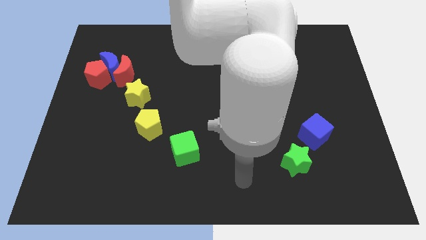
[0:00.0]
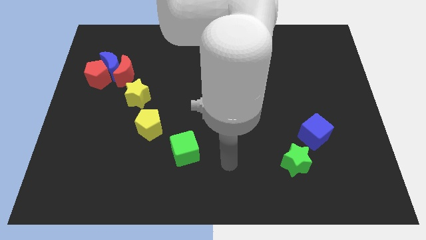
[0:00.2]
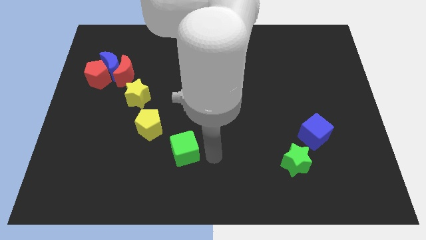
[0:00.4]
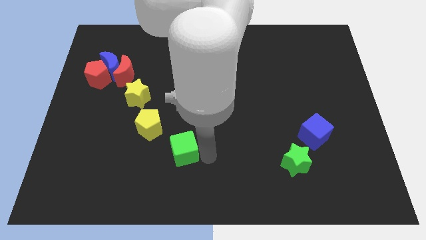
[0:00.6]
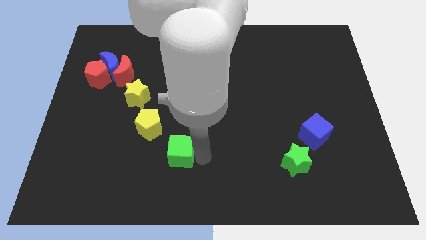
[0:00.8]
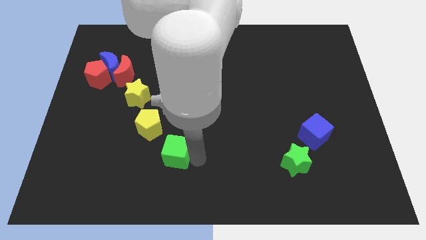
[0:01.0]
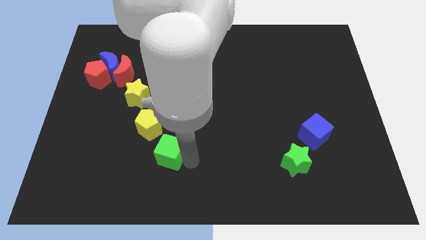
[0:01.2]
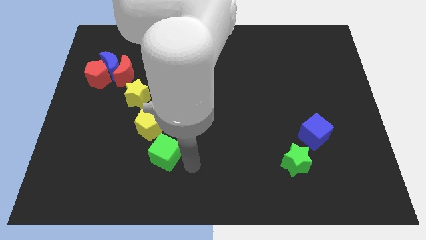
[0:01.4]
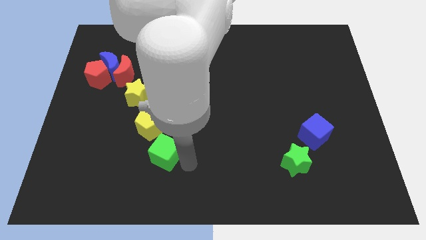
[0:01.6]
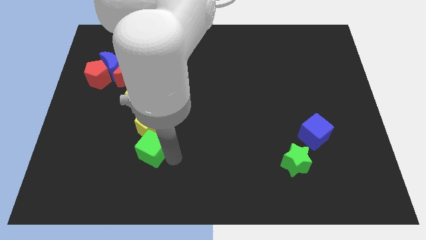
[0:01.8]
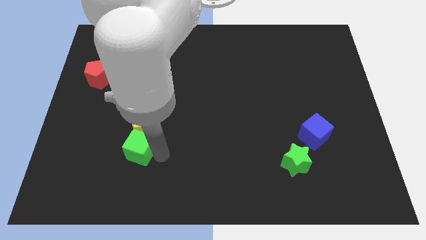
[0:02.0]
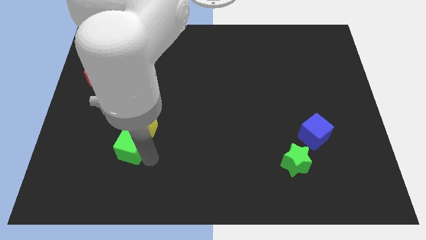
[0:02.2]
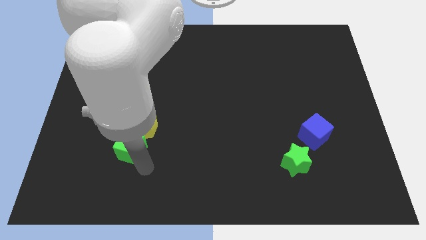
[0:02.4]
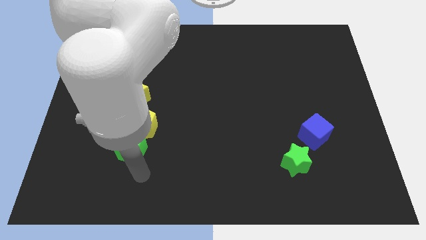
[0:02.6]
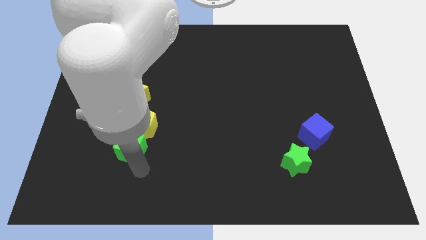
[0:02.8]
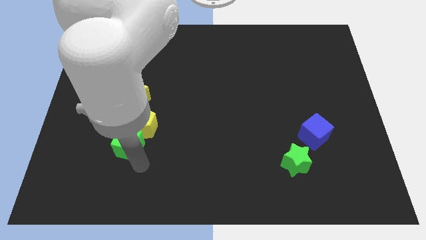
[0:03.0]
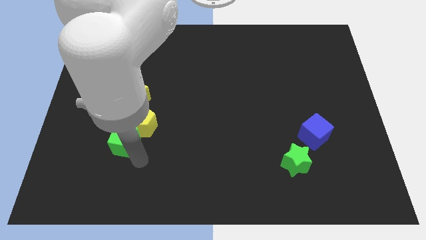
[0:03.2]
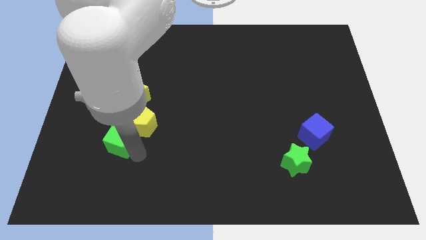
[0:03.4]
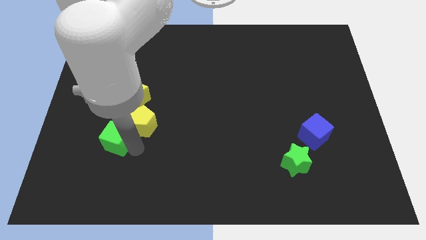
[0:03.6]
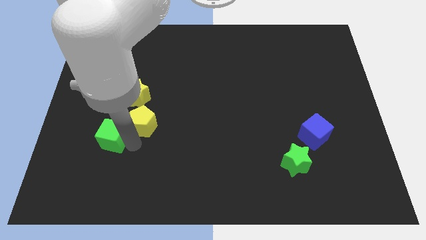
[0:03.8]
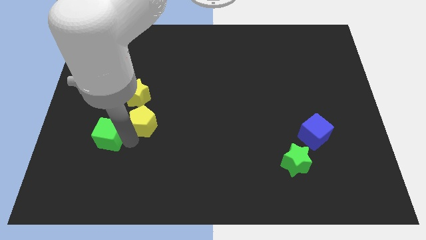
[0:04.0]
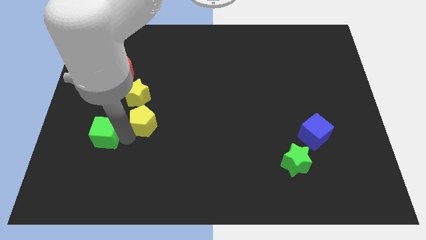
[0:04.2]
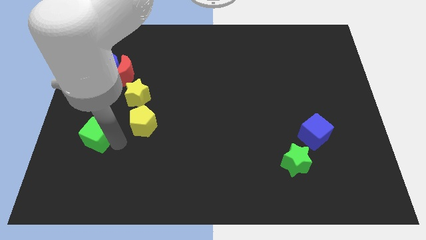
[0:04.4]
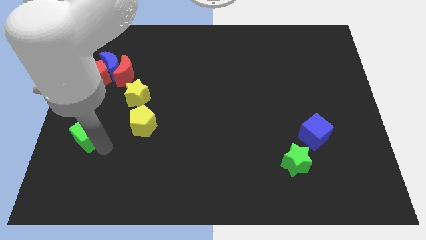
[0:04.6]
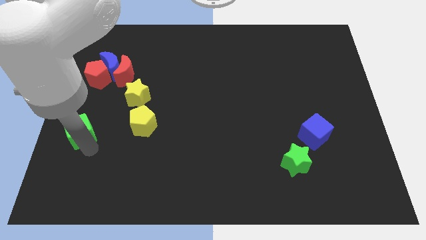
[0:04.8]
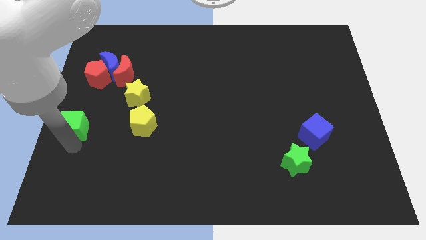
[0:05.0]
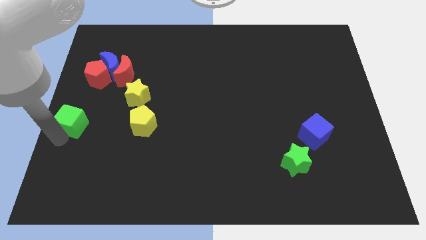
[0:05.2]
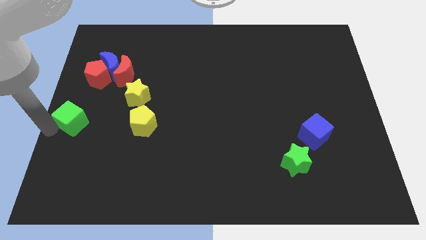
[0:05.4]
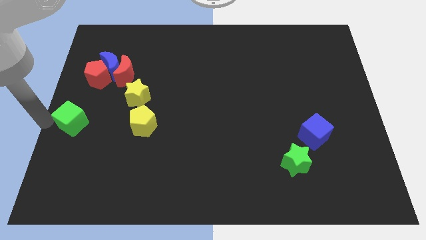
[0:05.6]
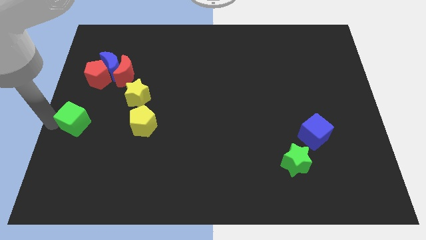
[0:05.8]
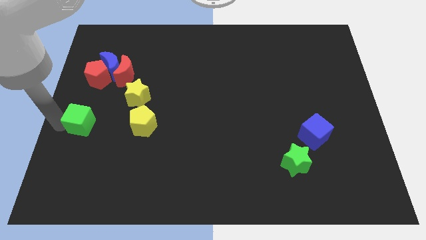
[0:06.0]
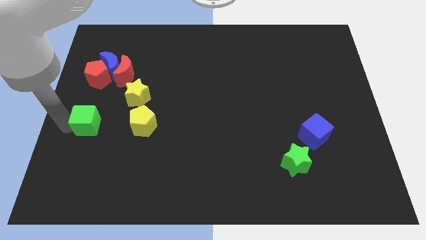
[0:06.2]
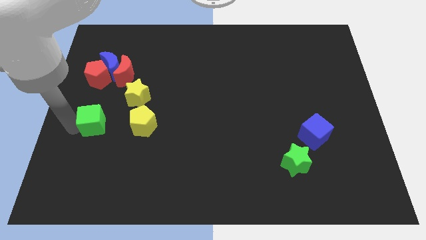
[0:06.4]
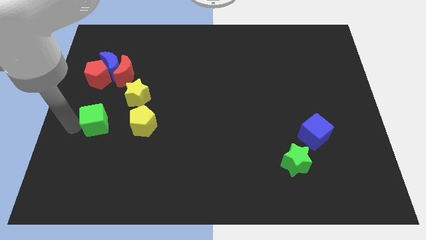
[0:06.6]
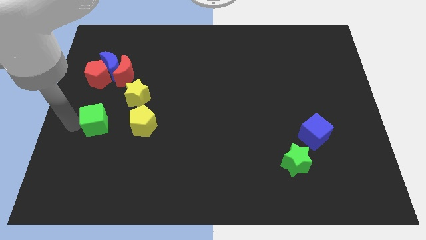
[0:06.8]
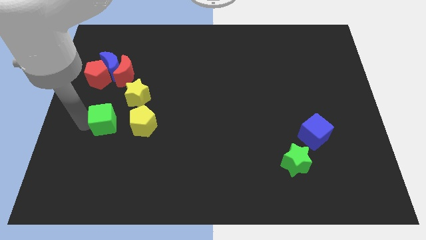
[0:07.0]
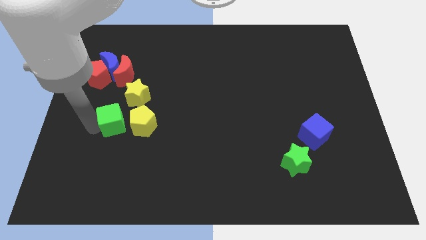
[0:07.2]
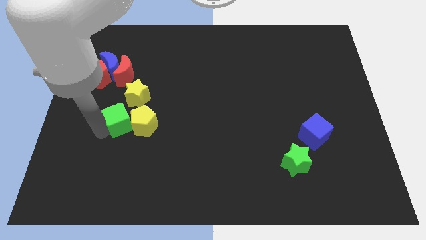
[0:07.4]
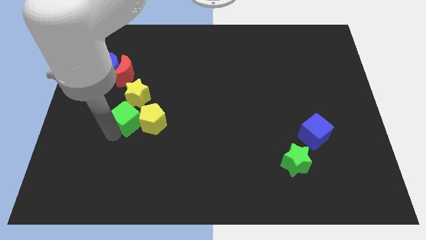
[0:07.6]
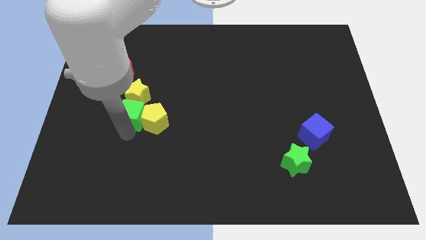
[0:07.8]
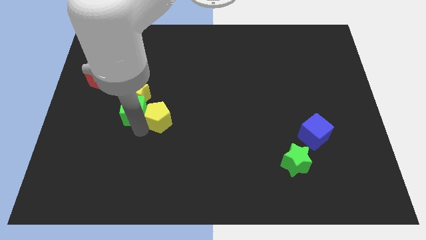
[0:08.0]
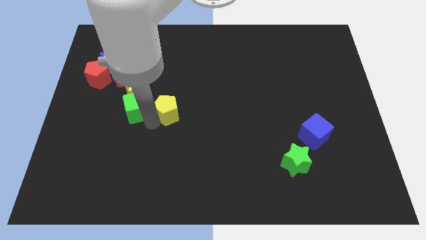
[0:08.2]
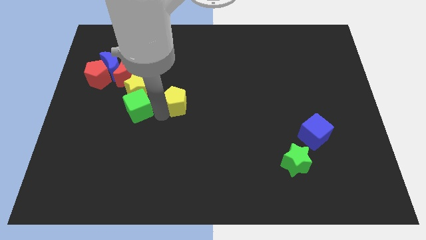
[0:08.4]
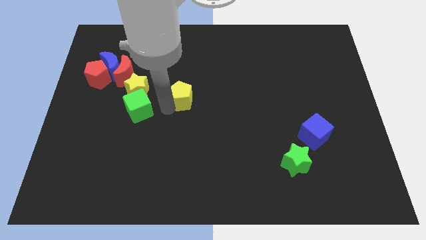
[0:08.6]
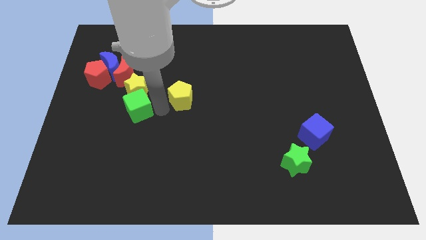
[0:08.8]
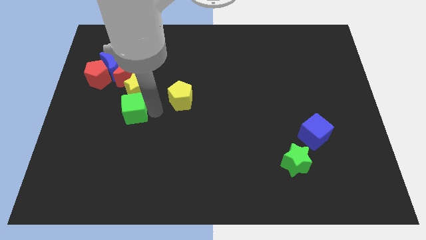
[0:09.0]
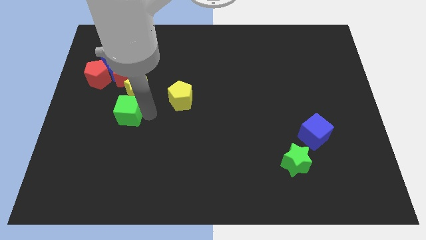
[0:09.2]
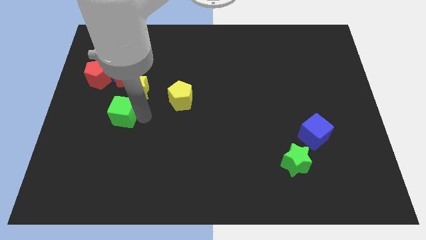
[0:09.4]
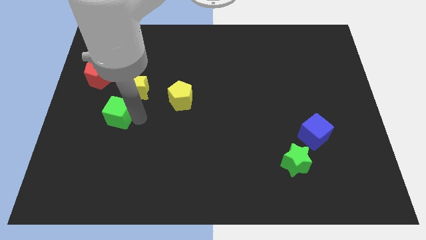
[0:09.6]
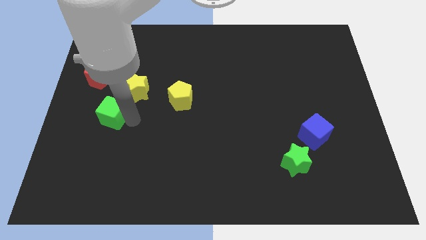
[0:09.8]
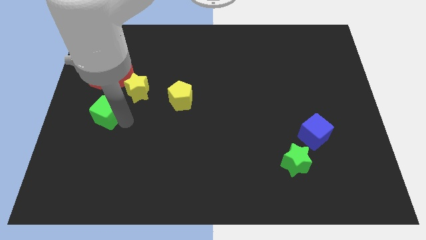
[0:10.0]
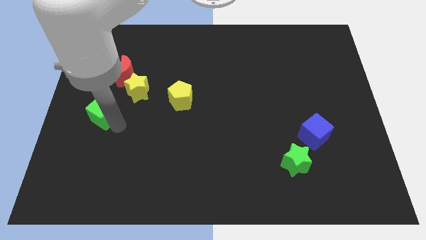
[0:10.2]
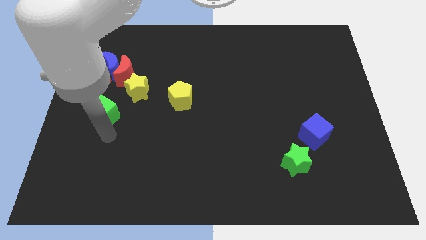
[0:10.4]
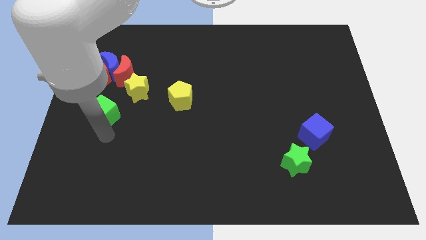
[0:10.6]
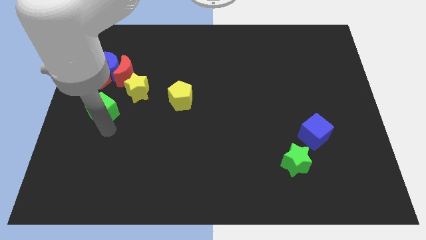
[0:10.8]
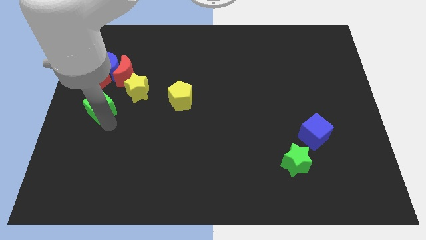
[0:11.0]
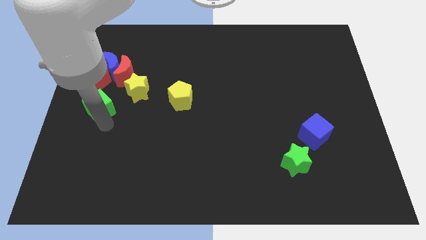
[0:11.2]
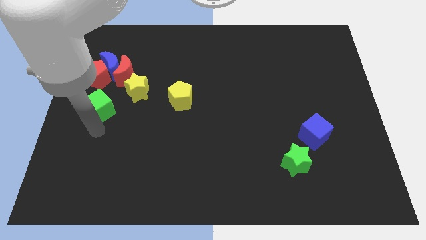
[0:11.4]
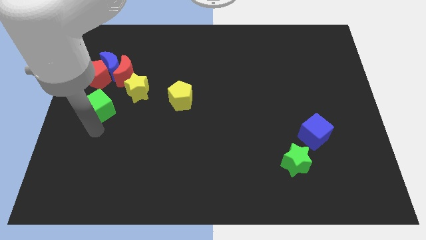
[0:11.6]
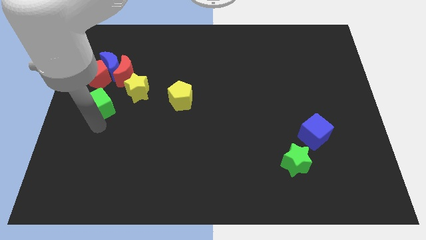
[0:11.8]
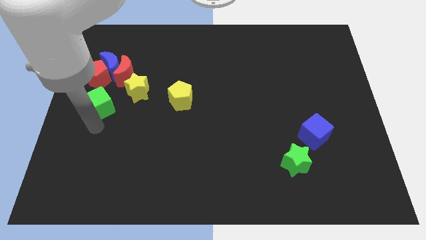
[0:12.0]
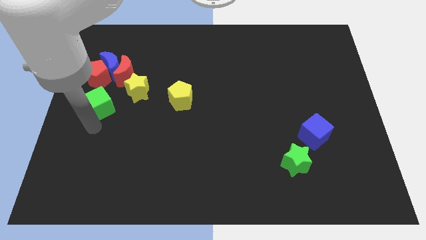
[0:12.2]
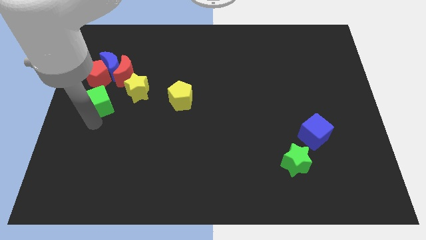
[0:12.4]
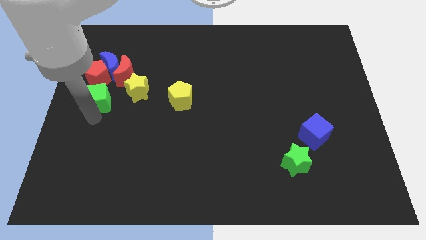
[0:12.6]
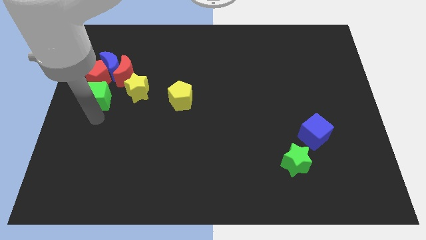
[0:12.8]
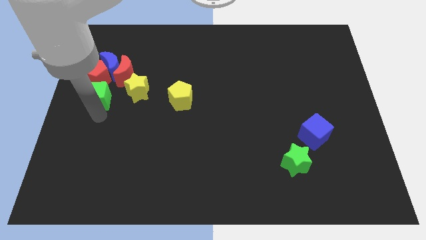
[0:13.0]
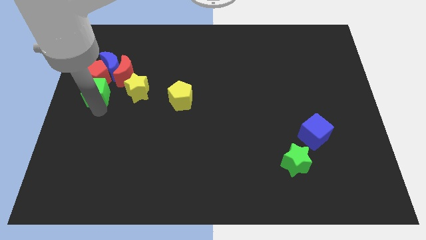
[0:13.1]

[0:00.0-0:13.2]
move the green cube towards the red pentagon
